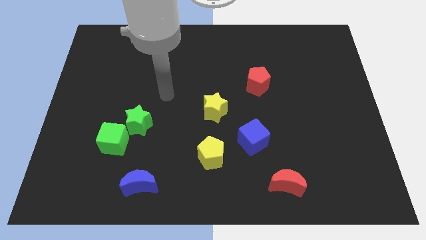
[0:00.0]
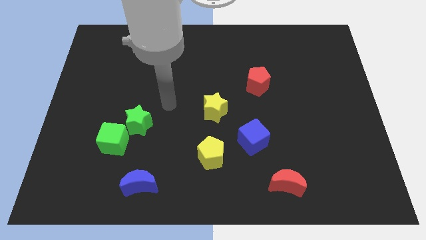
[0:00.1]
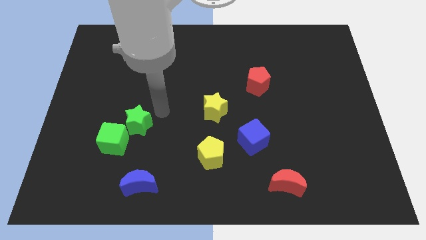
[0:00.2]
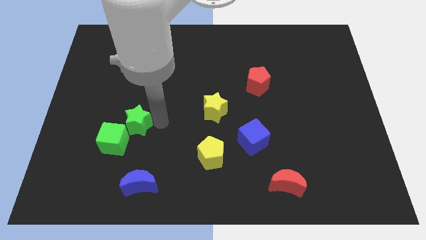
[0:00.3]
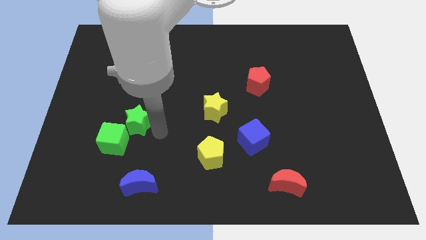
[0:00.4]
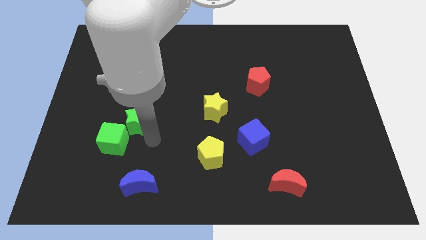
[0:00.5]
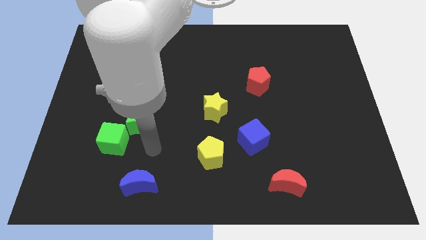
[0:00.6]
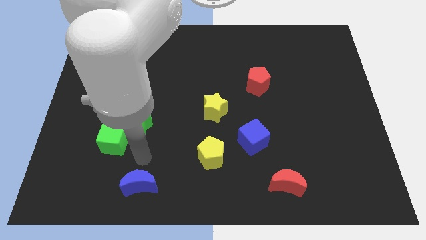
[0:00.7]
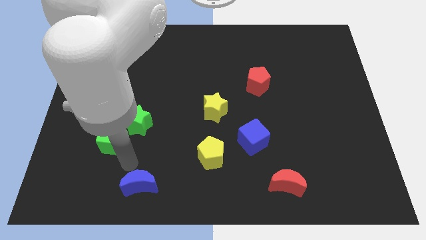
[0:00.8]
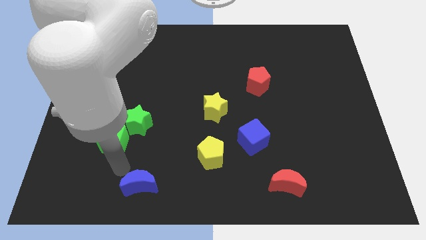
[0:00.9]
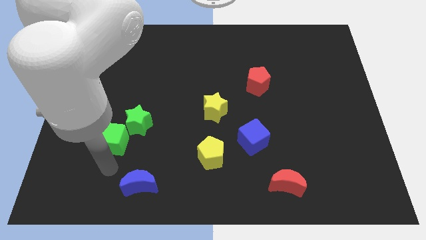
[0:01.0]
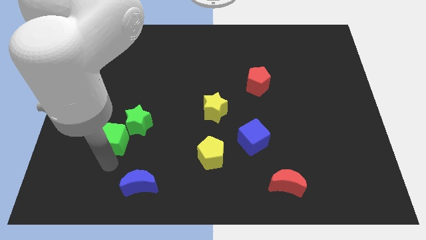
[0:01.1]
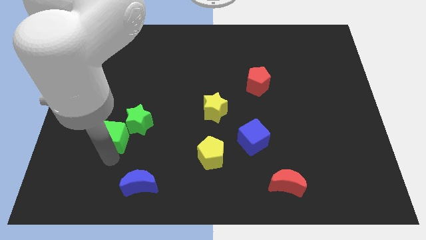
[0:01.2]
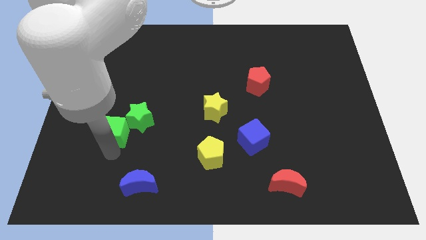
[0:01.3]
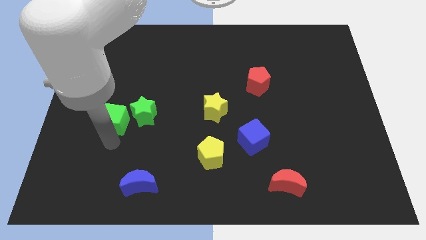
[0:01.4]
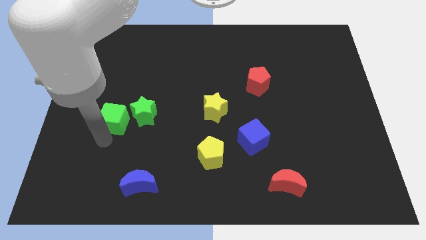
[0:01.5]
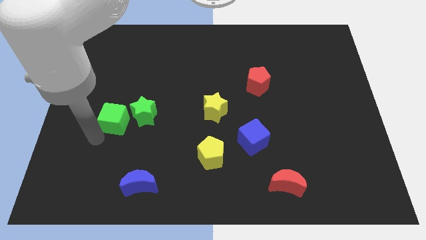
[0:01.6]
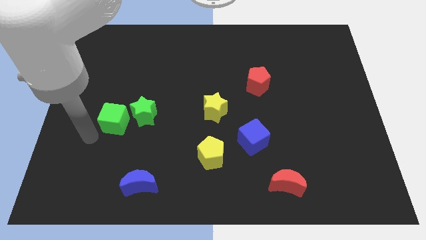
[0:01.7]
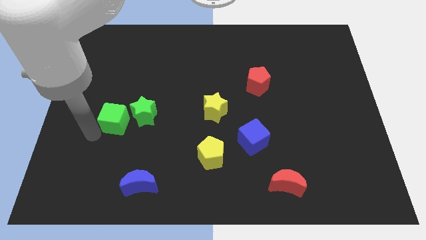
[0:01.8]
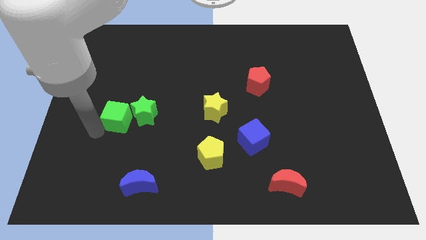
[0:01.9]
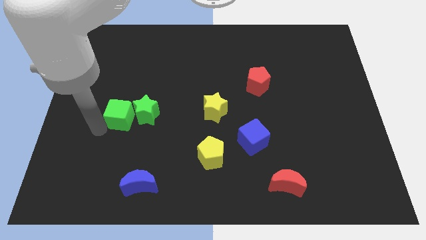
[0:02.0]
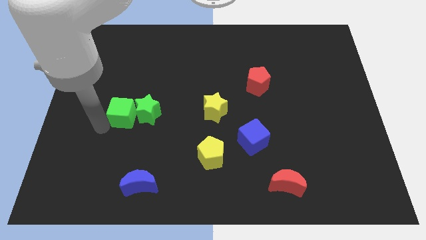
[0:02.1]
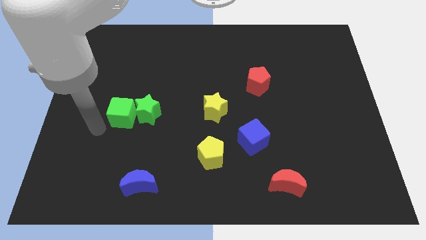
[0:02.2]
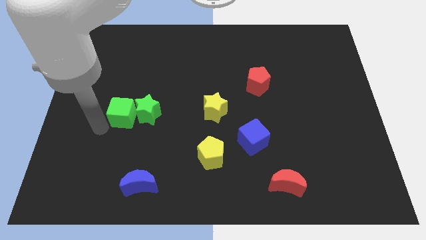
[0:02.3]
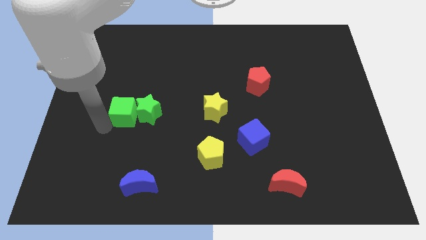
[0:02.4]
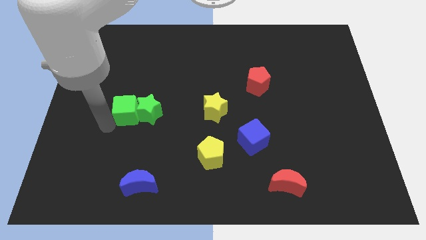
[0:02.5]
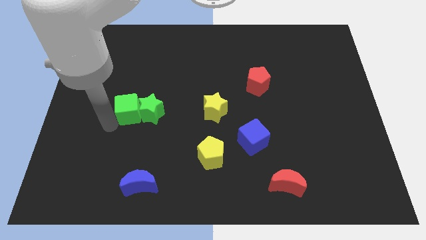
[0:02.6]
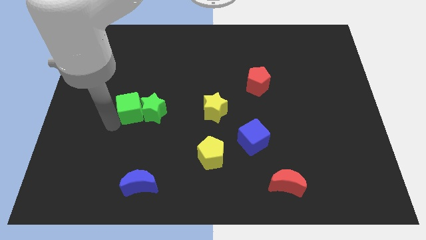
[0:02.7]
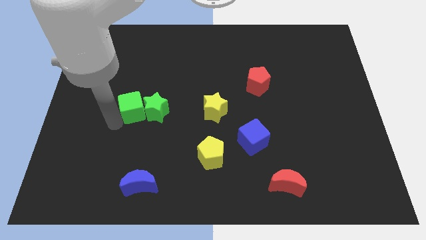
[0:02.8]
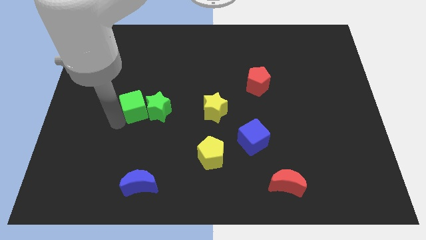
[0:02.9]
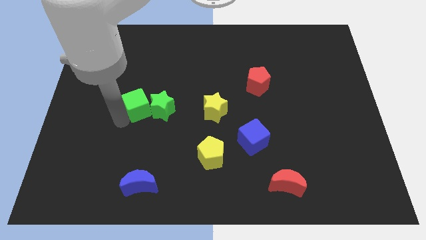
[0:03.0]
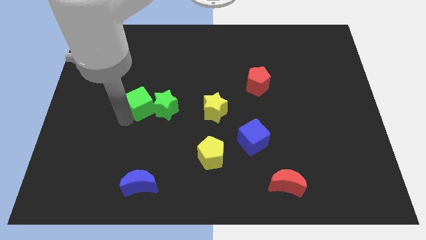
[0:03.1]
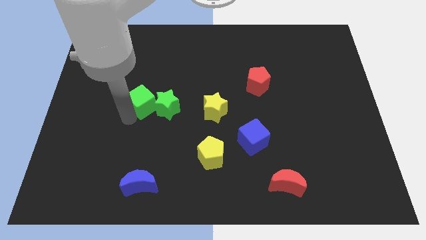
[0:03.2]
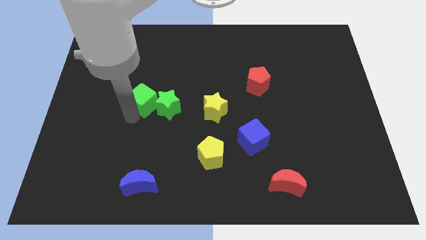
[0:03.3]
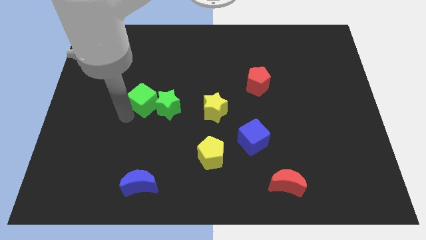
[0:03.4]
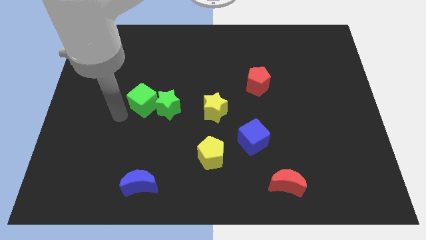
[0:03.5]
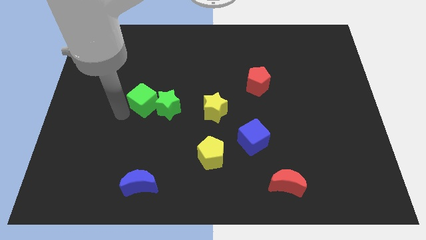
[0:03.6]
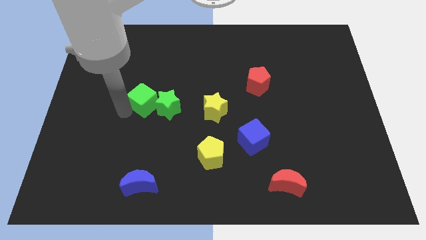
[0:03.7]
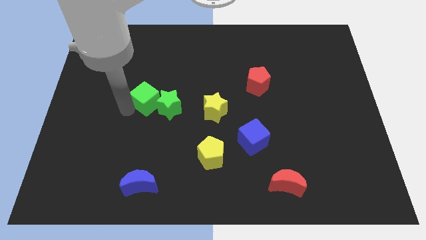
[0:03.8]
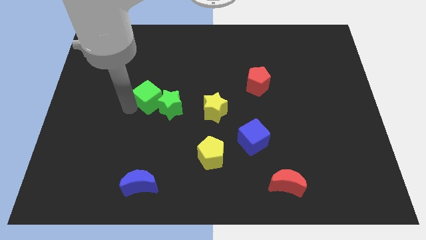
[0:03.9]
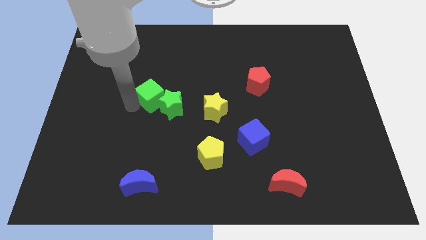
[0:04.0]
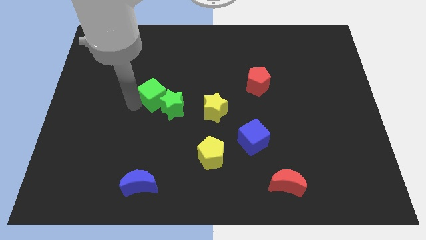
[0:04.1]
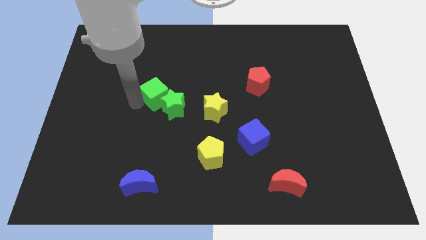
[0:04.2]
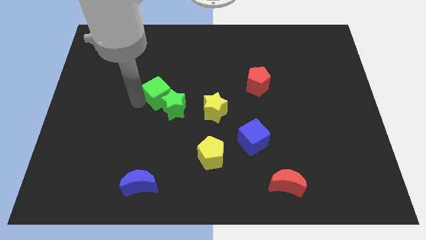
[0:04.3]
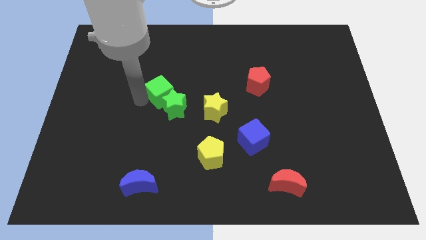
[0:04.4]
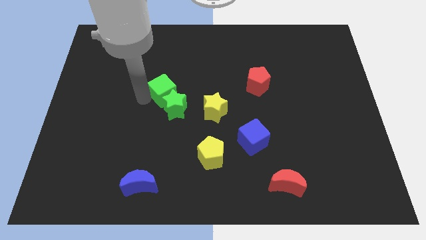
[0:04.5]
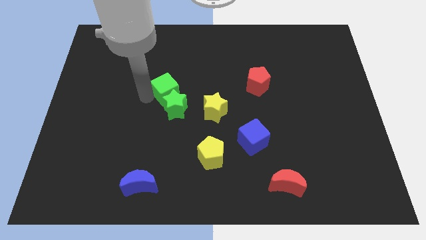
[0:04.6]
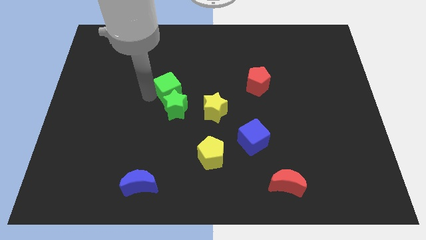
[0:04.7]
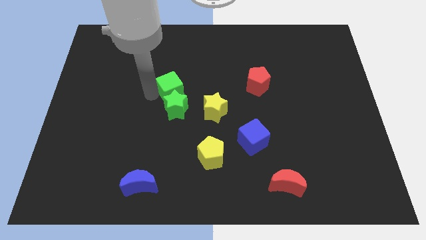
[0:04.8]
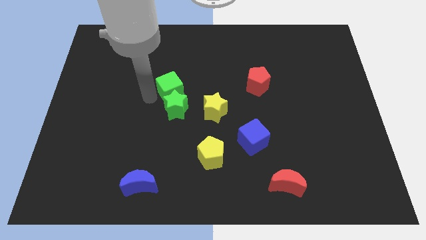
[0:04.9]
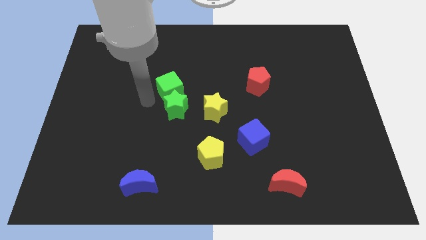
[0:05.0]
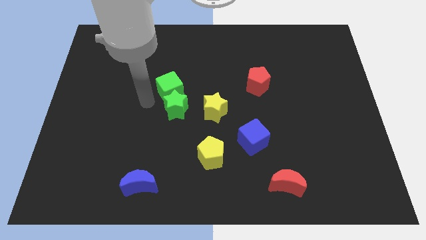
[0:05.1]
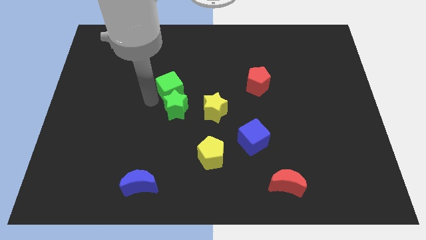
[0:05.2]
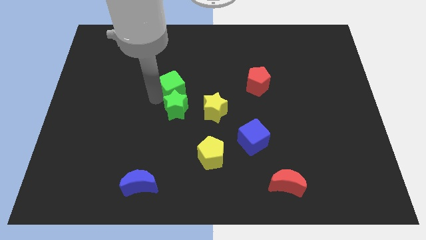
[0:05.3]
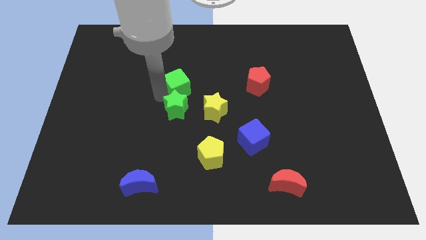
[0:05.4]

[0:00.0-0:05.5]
move the green cube upwards and right diagonally

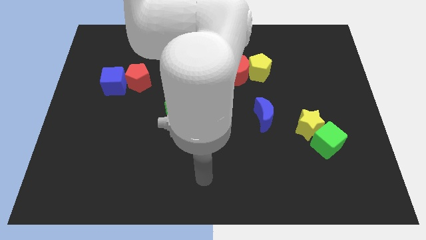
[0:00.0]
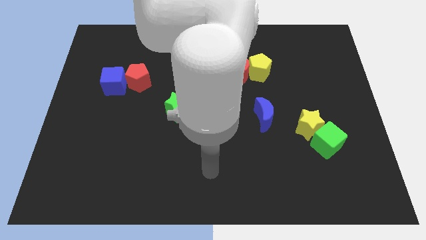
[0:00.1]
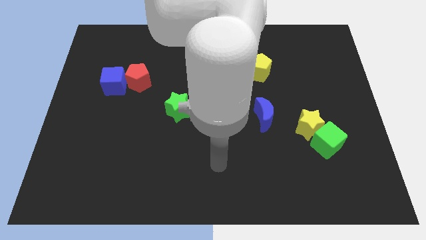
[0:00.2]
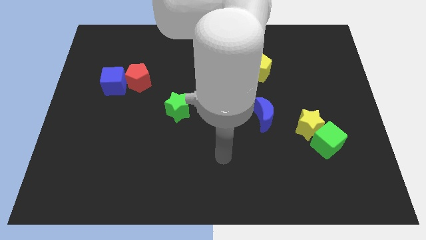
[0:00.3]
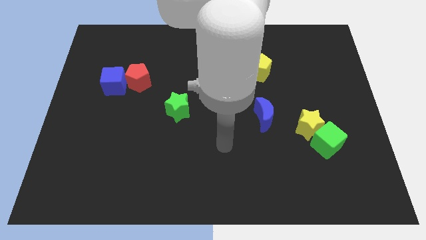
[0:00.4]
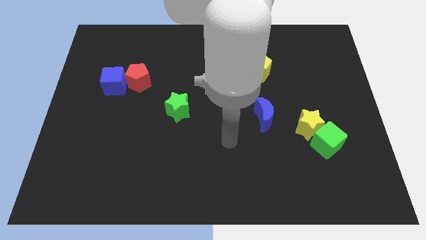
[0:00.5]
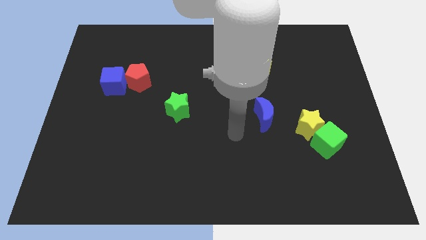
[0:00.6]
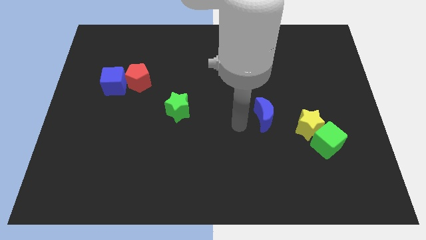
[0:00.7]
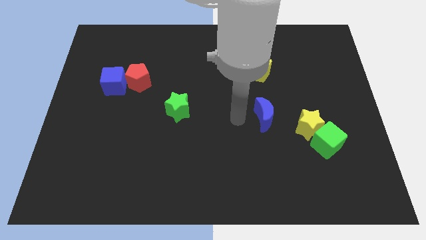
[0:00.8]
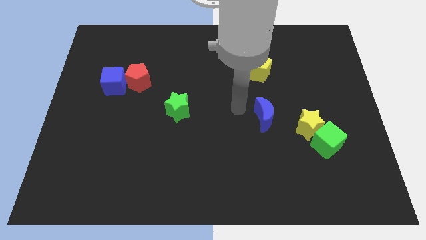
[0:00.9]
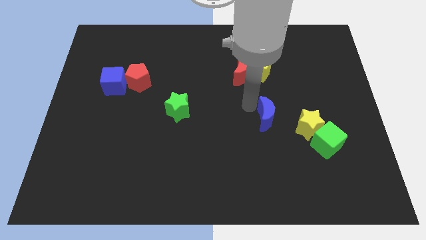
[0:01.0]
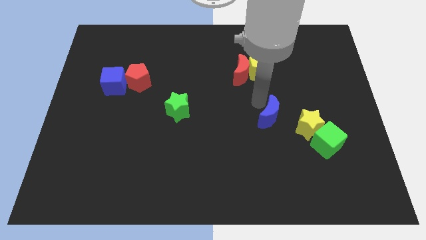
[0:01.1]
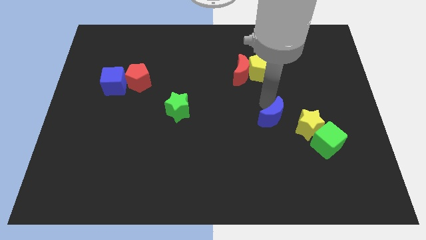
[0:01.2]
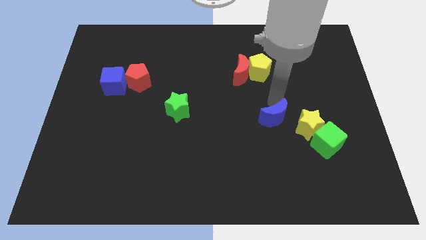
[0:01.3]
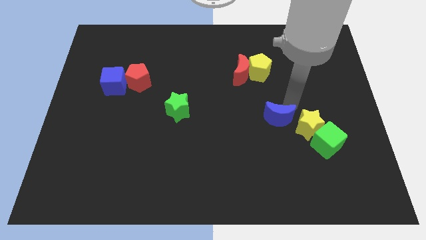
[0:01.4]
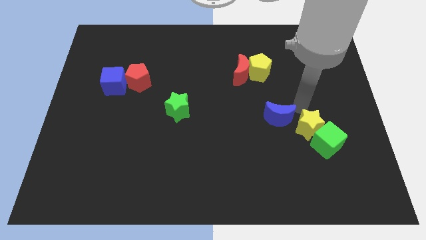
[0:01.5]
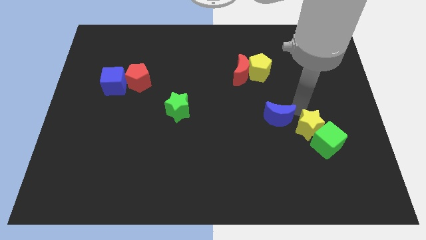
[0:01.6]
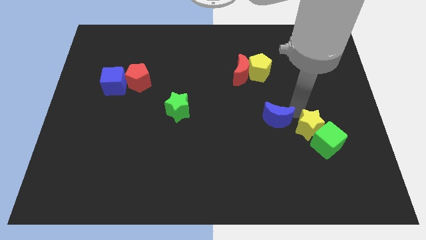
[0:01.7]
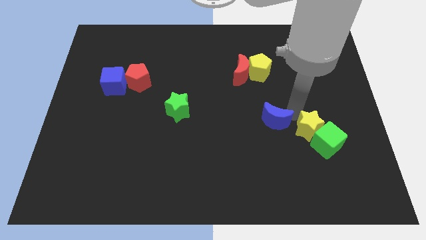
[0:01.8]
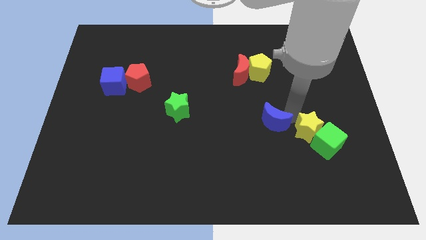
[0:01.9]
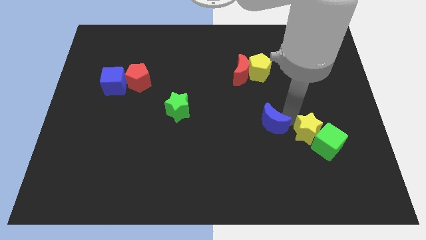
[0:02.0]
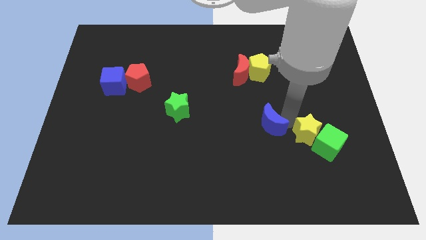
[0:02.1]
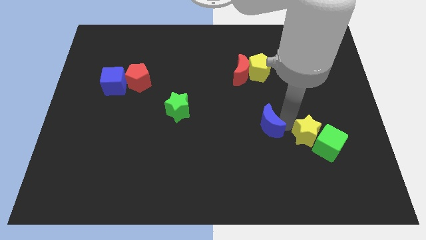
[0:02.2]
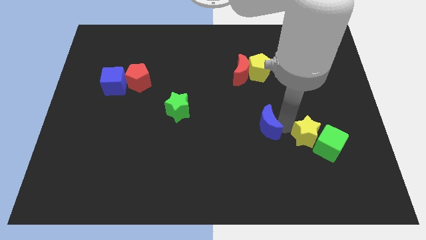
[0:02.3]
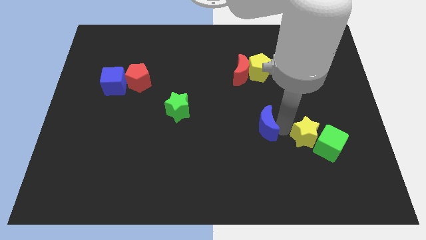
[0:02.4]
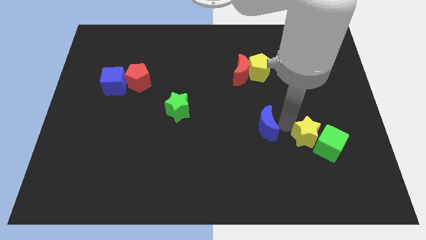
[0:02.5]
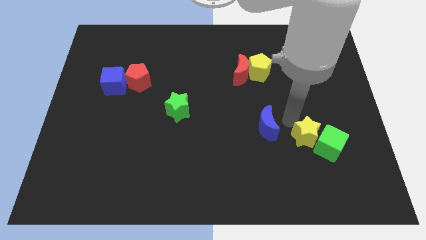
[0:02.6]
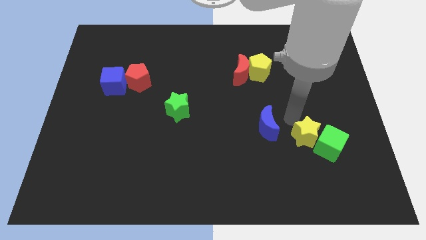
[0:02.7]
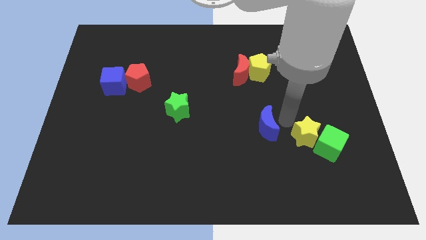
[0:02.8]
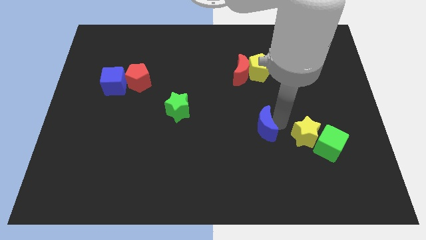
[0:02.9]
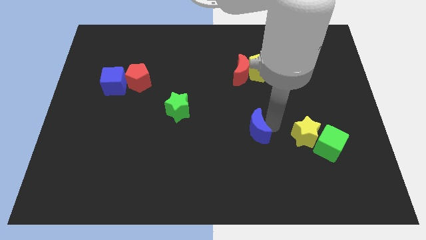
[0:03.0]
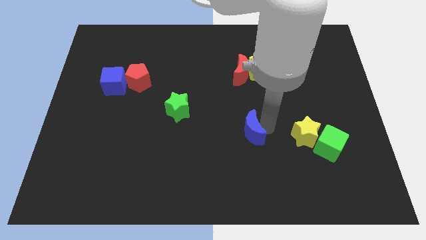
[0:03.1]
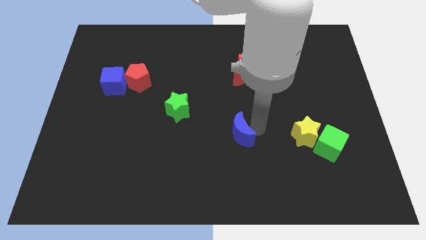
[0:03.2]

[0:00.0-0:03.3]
move the blue moon down and then left slightly
